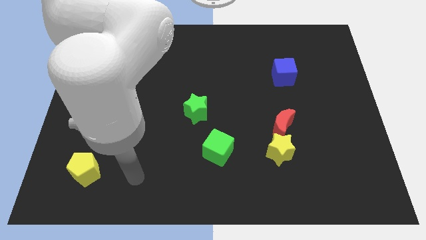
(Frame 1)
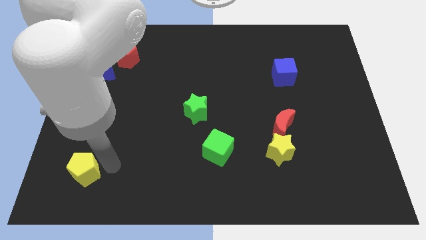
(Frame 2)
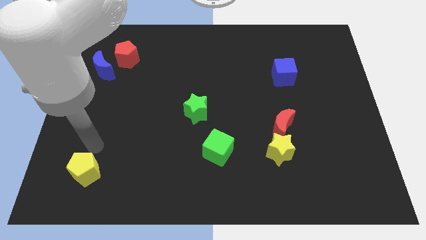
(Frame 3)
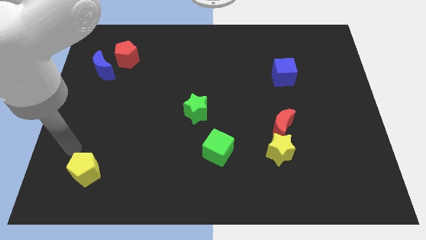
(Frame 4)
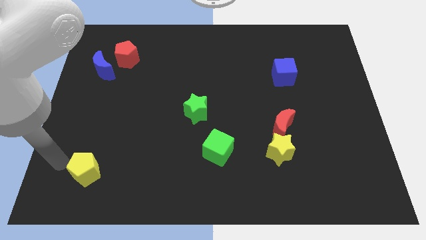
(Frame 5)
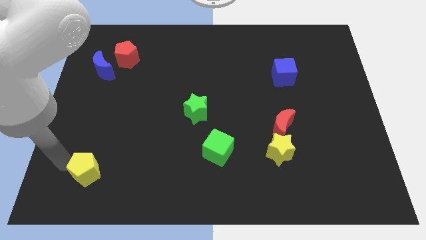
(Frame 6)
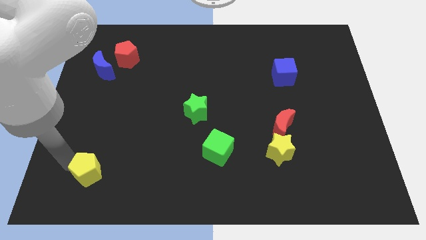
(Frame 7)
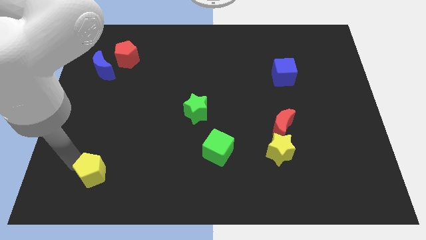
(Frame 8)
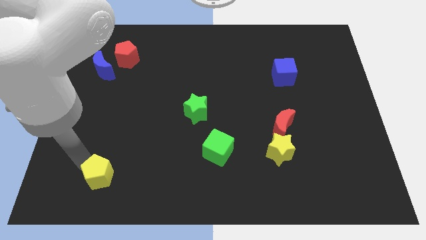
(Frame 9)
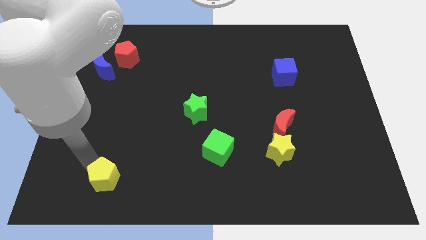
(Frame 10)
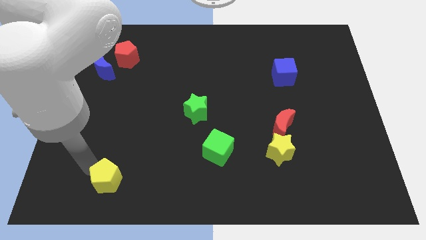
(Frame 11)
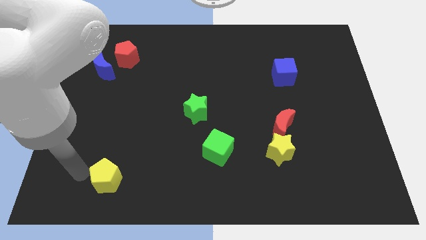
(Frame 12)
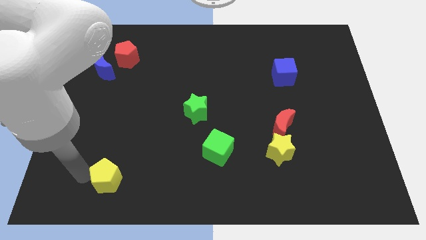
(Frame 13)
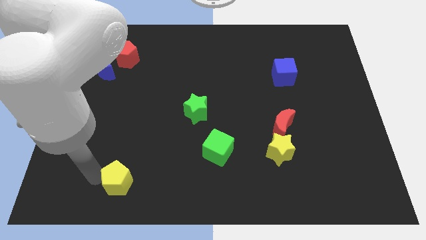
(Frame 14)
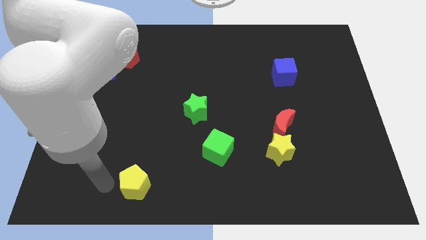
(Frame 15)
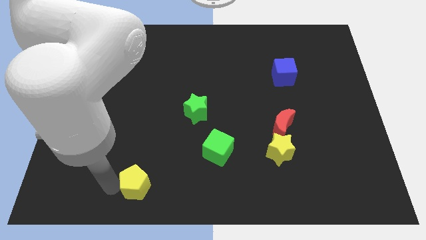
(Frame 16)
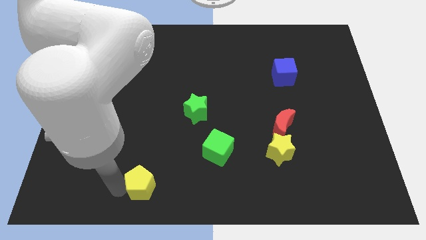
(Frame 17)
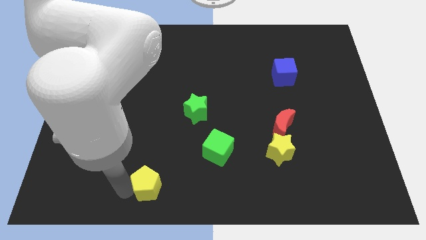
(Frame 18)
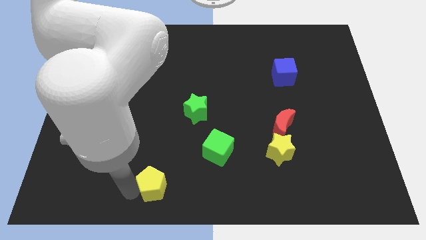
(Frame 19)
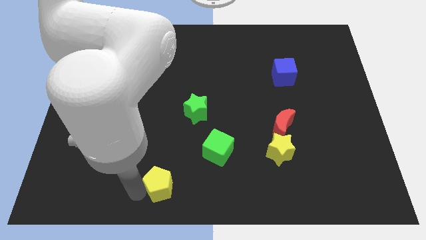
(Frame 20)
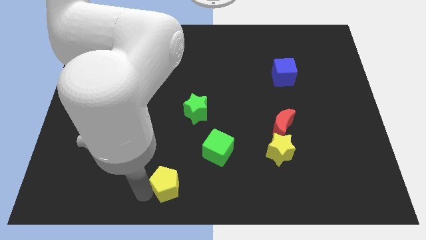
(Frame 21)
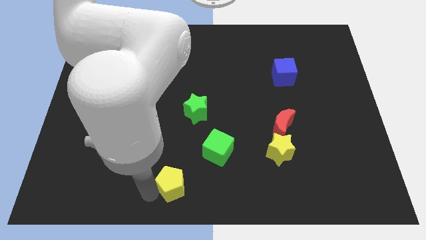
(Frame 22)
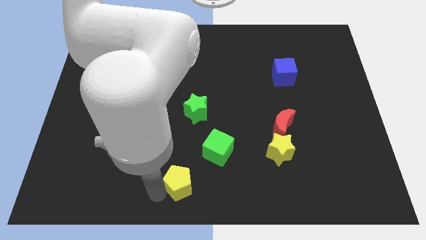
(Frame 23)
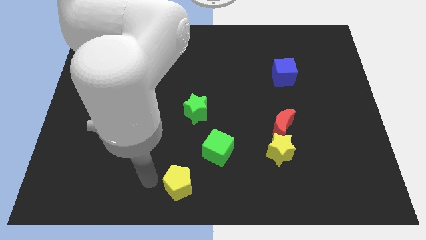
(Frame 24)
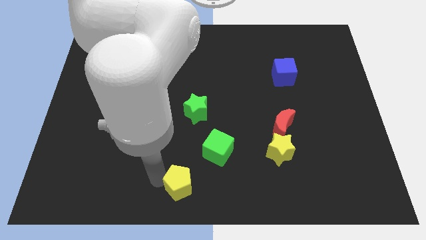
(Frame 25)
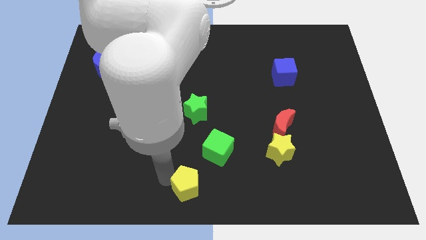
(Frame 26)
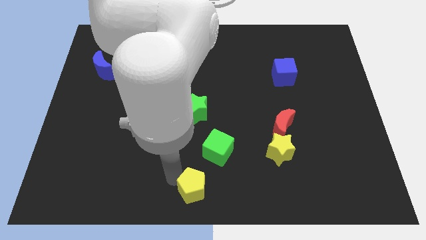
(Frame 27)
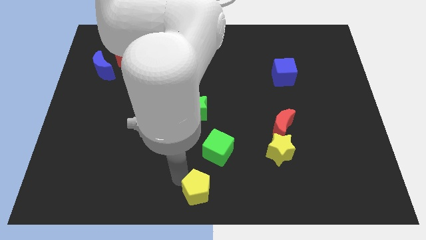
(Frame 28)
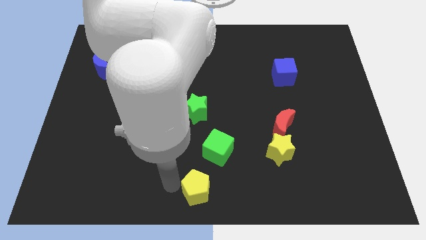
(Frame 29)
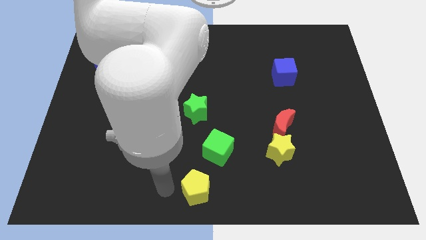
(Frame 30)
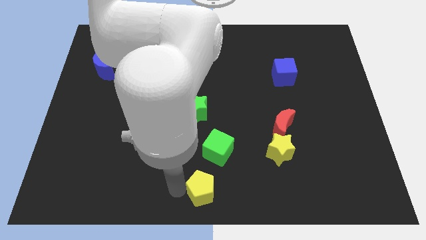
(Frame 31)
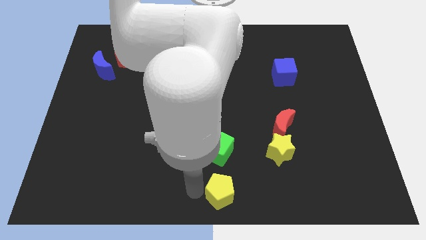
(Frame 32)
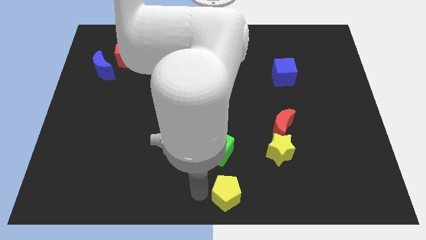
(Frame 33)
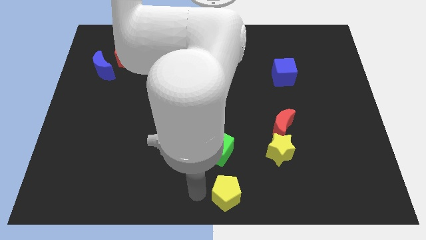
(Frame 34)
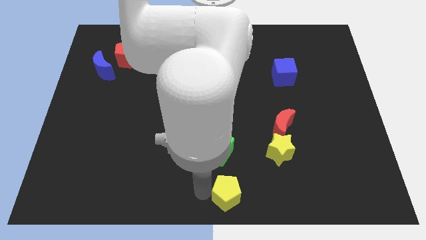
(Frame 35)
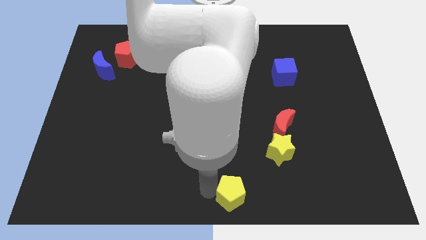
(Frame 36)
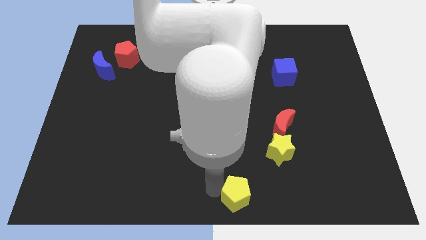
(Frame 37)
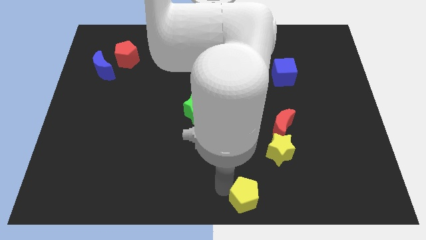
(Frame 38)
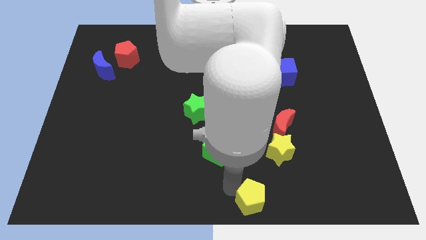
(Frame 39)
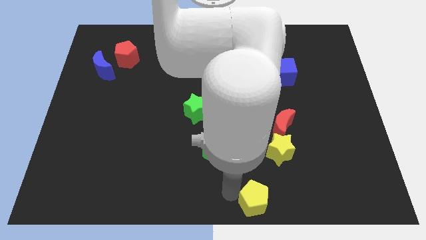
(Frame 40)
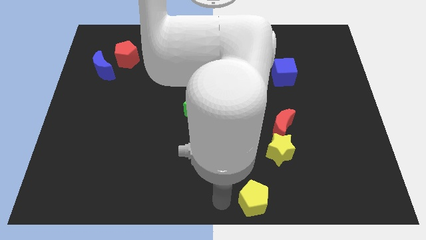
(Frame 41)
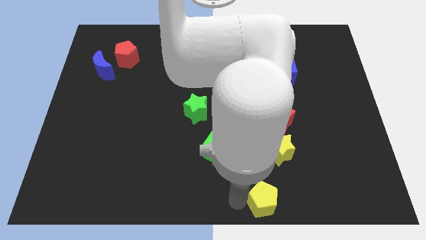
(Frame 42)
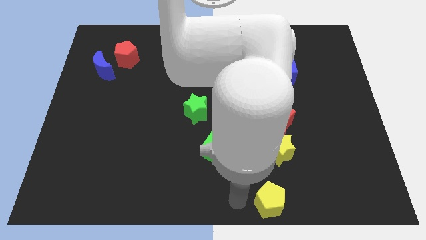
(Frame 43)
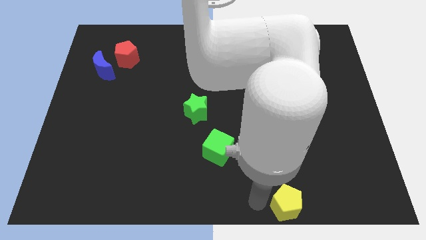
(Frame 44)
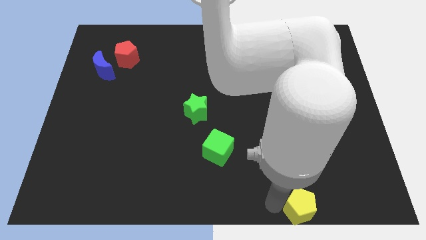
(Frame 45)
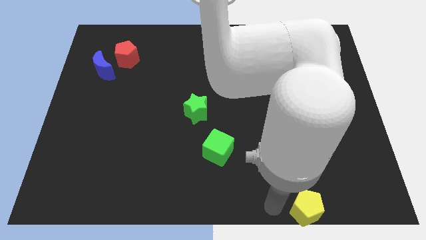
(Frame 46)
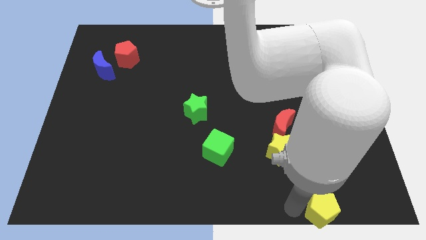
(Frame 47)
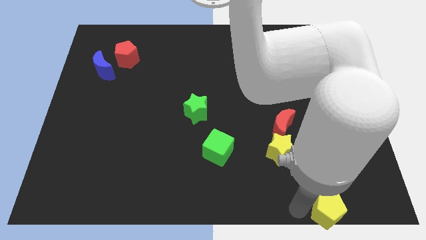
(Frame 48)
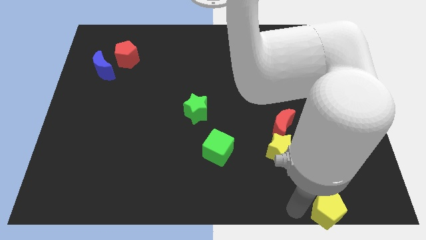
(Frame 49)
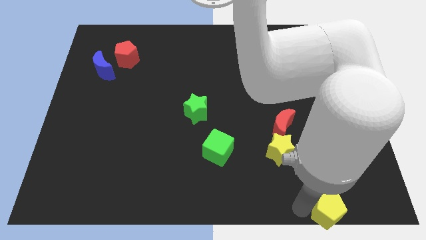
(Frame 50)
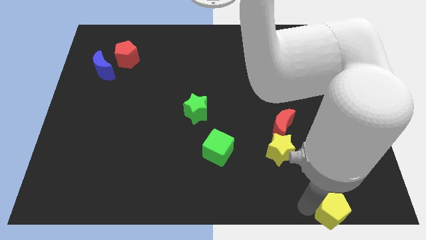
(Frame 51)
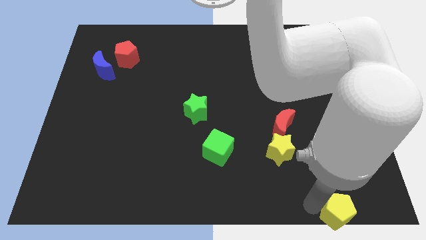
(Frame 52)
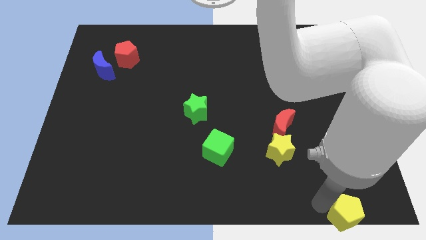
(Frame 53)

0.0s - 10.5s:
move the yellow pentagon to the lower right corner

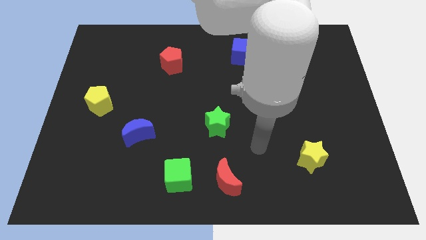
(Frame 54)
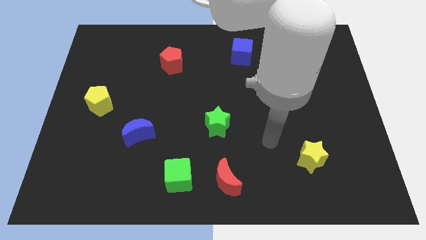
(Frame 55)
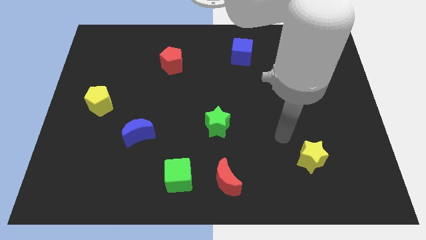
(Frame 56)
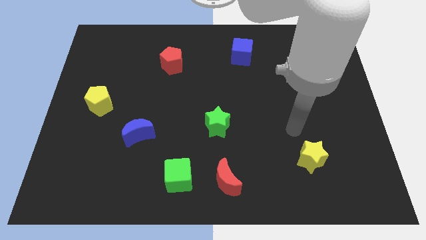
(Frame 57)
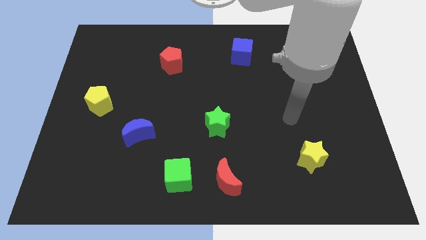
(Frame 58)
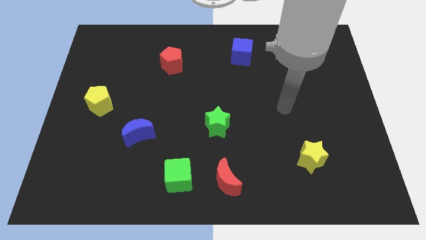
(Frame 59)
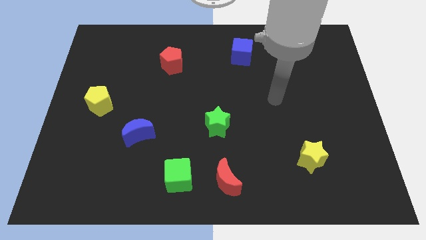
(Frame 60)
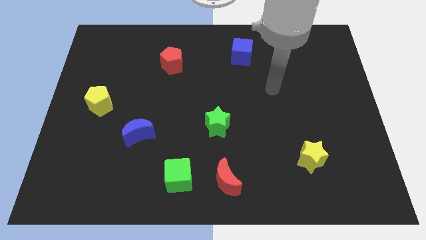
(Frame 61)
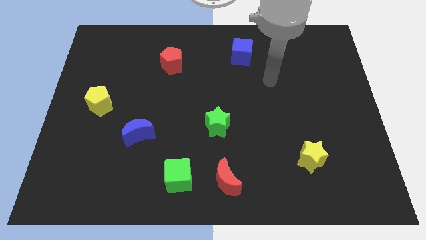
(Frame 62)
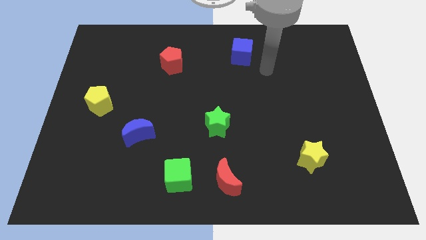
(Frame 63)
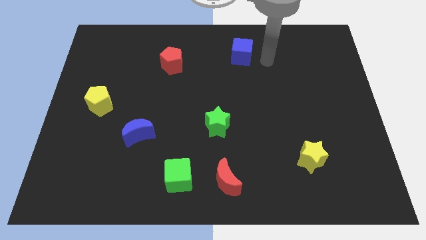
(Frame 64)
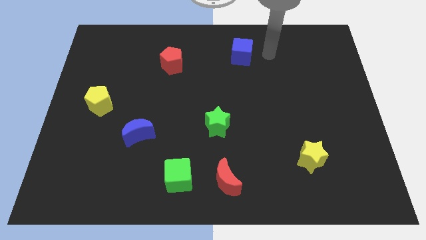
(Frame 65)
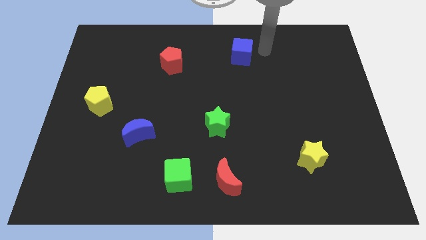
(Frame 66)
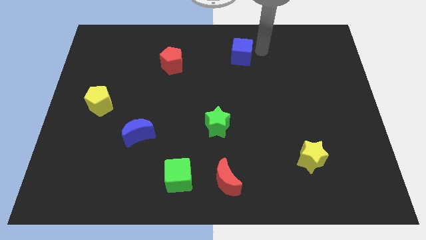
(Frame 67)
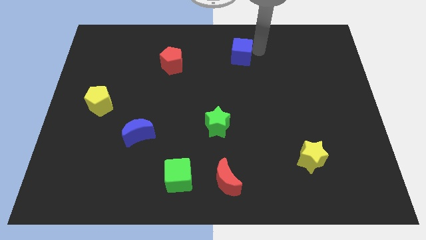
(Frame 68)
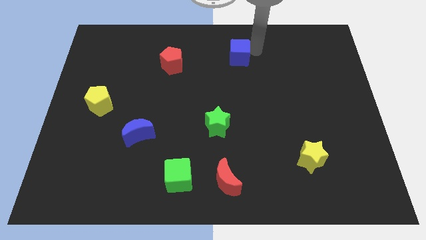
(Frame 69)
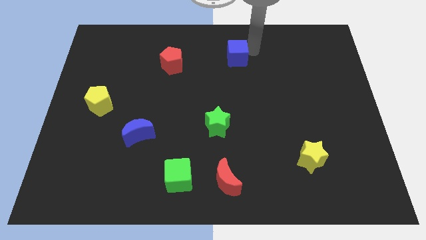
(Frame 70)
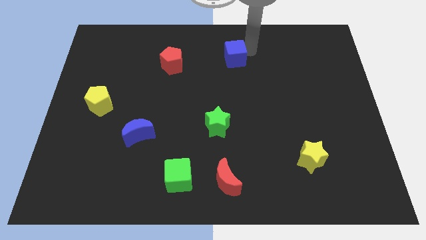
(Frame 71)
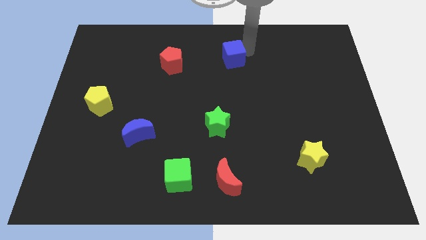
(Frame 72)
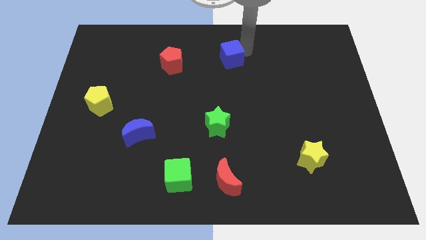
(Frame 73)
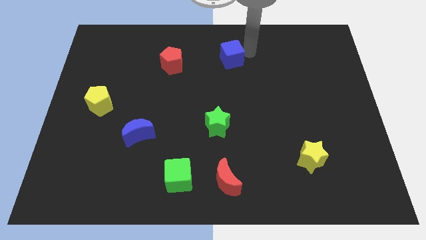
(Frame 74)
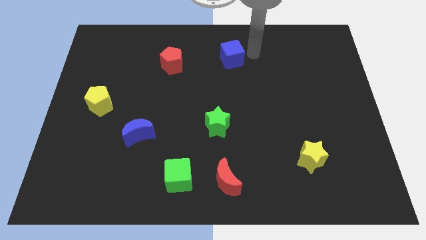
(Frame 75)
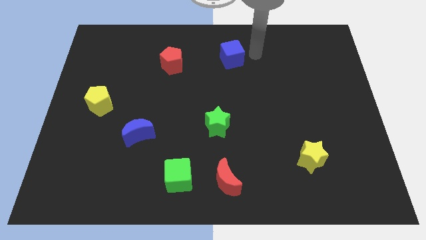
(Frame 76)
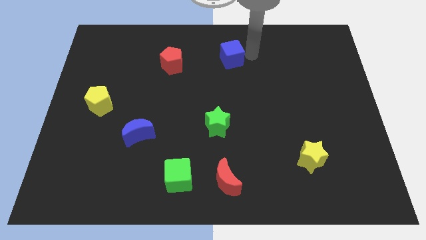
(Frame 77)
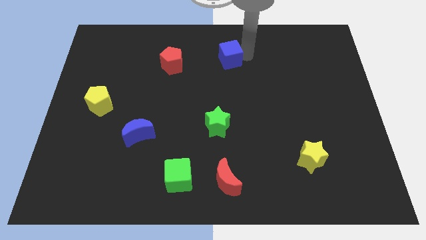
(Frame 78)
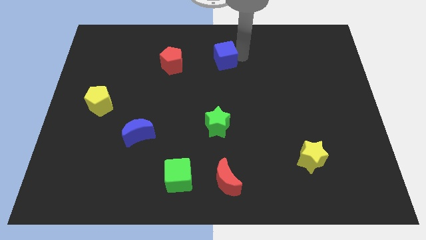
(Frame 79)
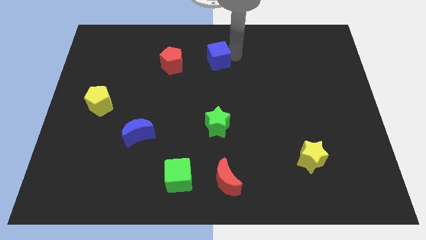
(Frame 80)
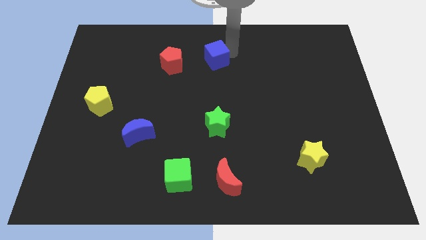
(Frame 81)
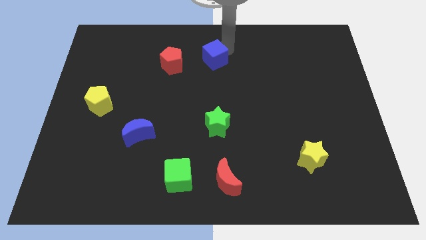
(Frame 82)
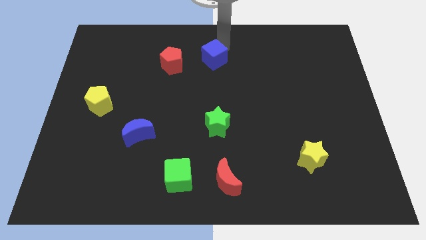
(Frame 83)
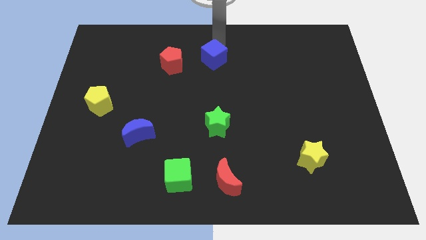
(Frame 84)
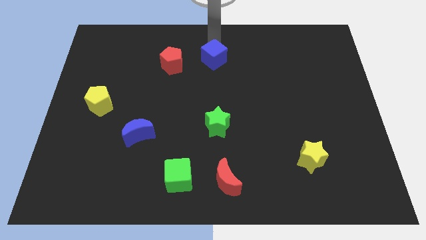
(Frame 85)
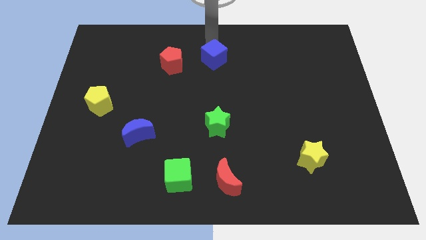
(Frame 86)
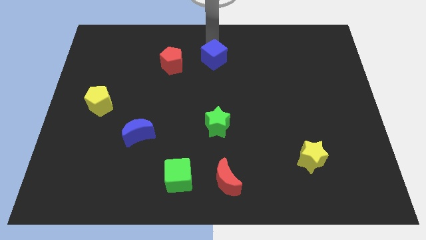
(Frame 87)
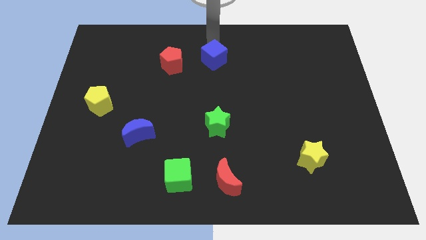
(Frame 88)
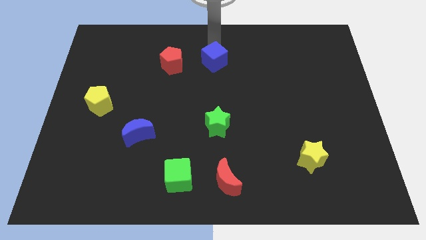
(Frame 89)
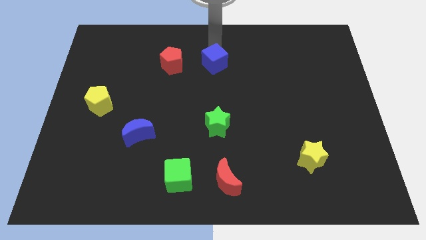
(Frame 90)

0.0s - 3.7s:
move the blue cube to the center
